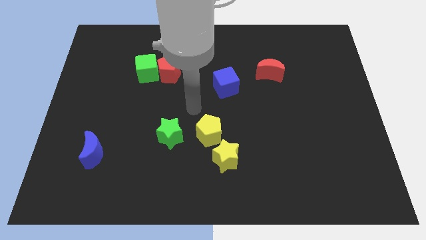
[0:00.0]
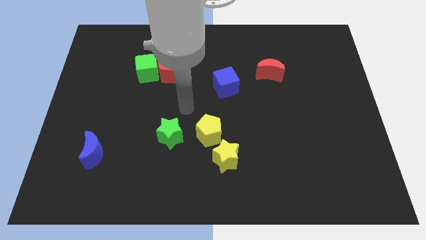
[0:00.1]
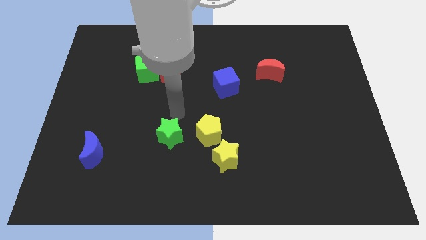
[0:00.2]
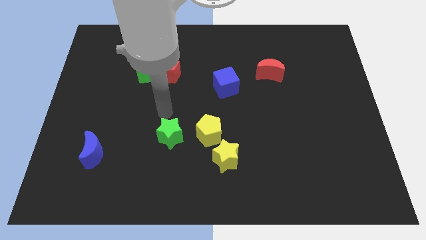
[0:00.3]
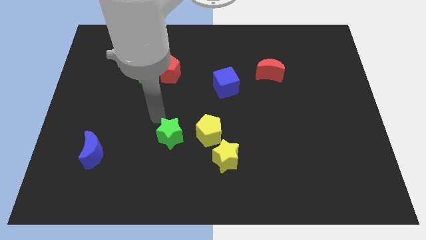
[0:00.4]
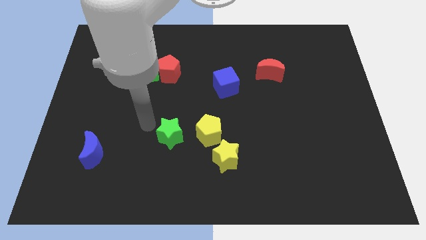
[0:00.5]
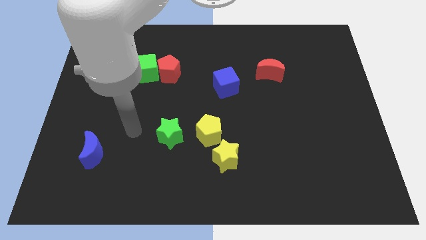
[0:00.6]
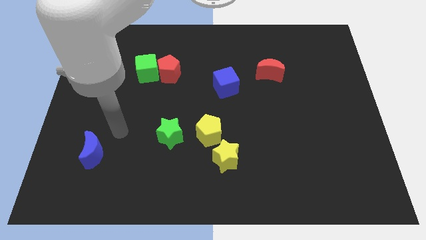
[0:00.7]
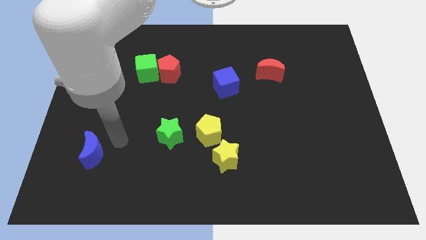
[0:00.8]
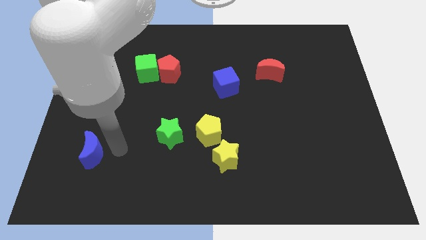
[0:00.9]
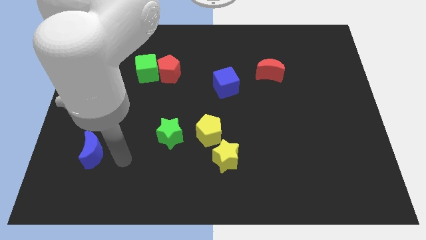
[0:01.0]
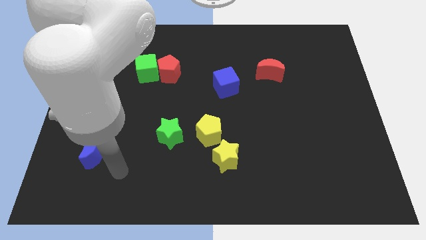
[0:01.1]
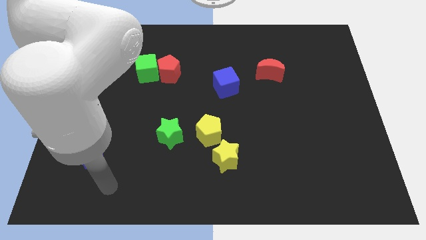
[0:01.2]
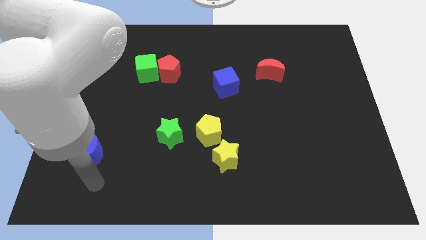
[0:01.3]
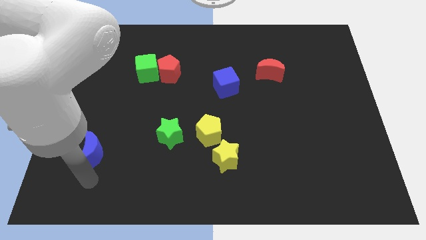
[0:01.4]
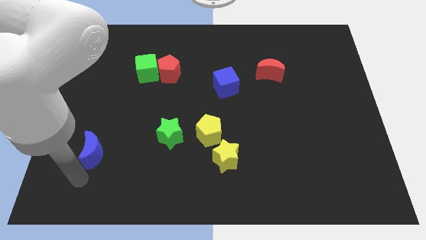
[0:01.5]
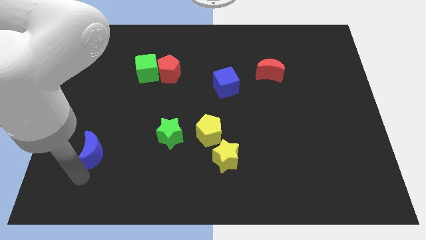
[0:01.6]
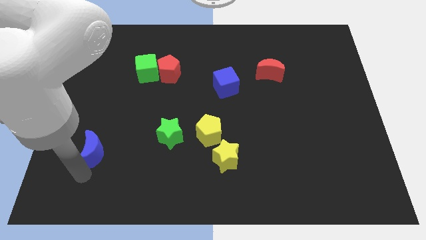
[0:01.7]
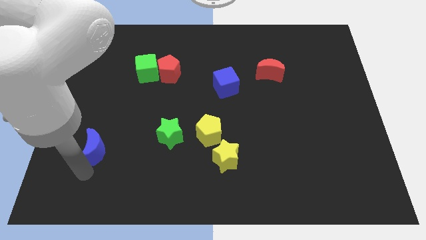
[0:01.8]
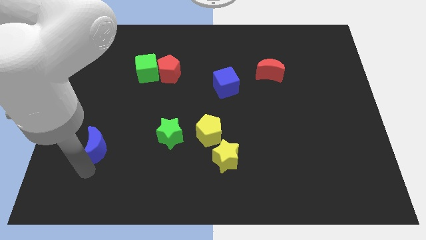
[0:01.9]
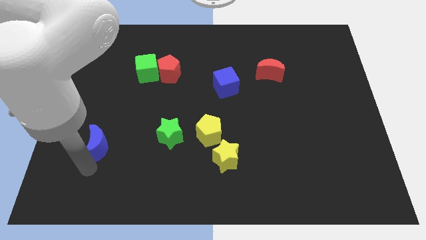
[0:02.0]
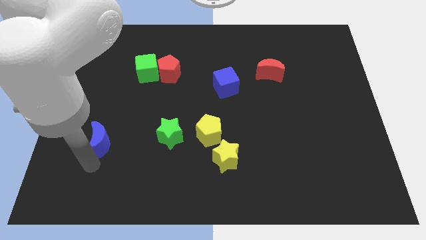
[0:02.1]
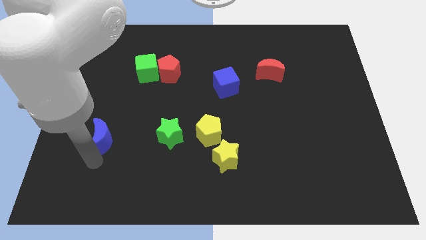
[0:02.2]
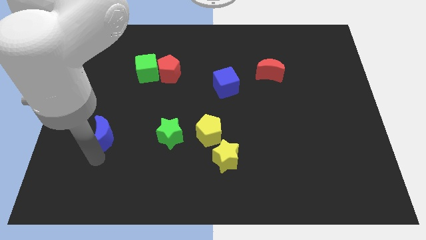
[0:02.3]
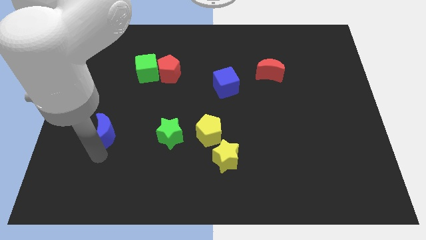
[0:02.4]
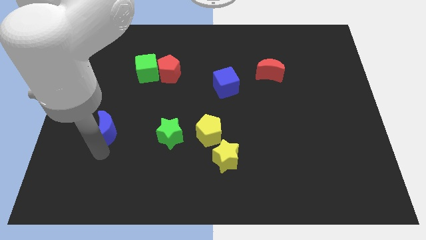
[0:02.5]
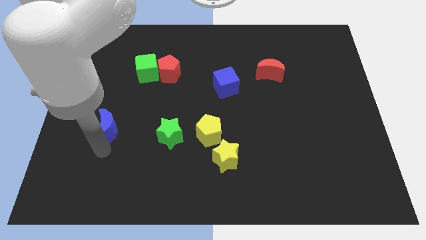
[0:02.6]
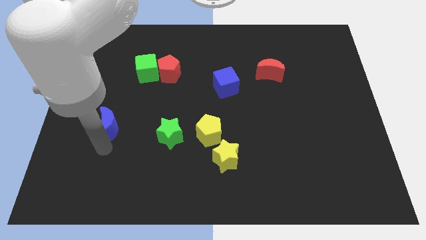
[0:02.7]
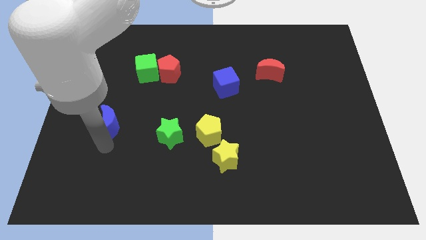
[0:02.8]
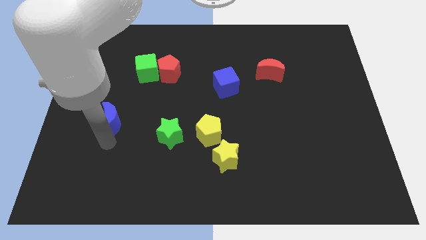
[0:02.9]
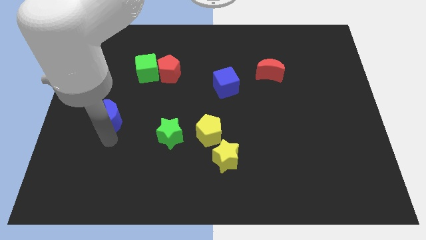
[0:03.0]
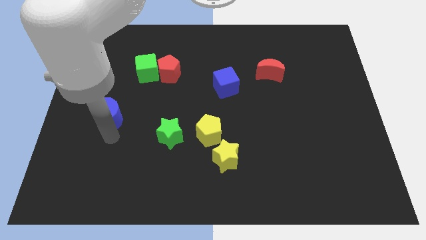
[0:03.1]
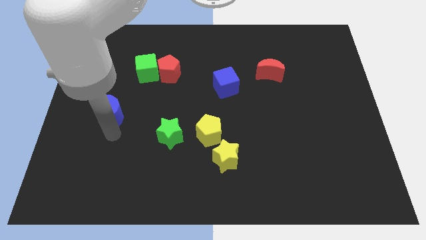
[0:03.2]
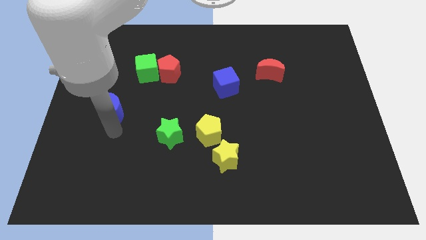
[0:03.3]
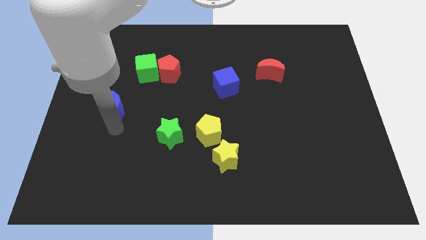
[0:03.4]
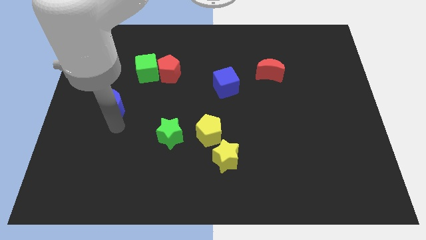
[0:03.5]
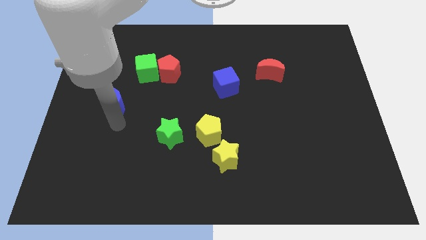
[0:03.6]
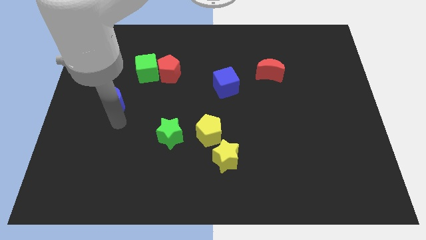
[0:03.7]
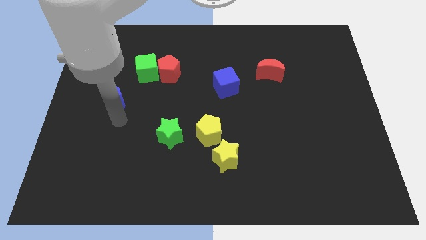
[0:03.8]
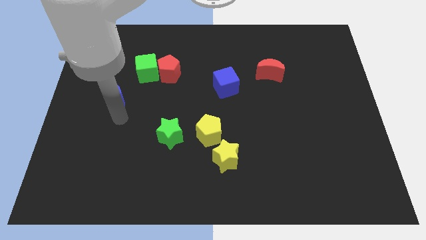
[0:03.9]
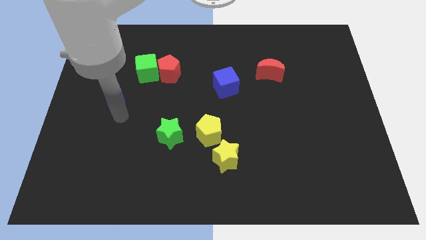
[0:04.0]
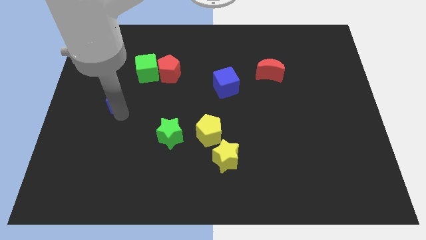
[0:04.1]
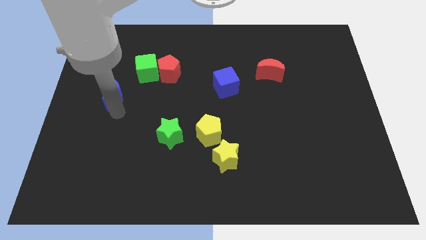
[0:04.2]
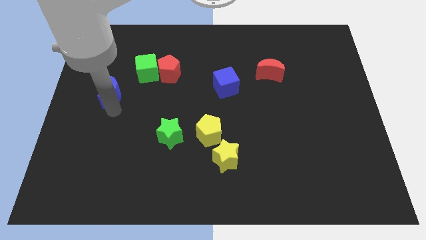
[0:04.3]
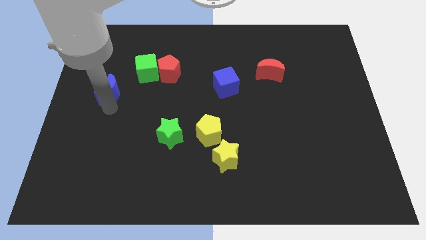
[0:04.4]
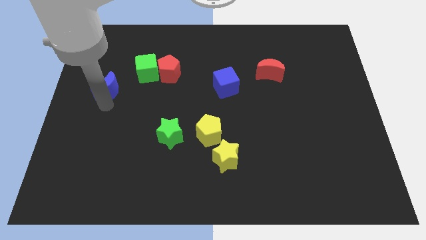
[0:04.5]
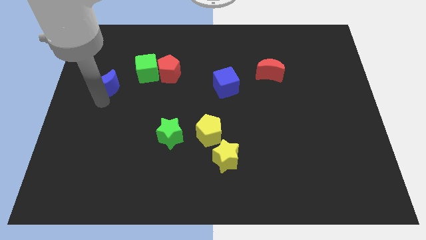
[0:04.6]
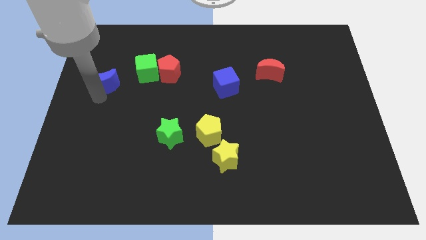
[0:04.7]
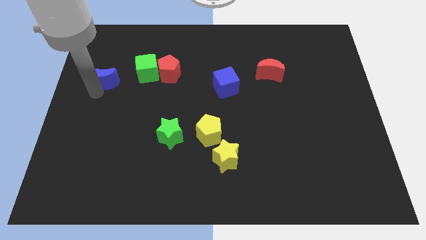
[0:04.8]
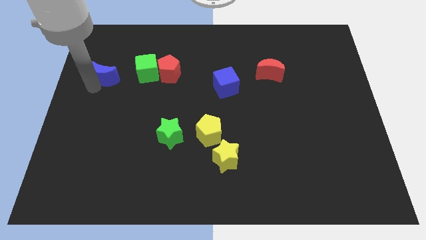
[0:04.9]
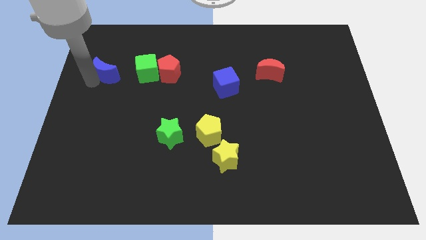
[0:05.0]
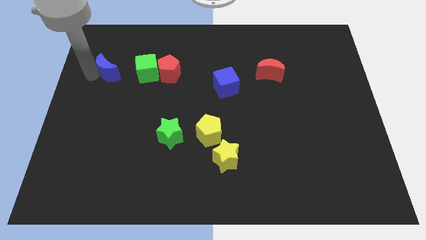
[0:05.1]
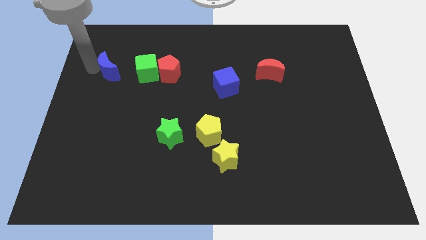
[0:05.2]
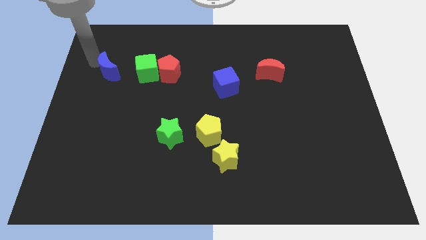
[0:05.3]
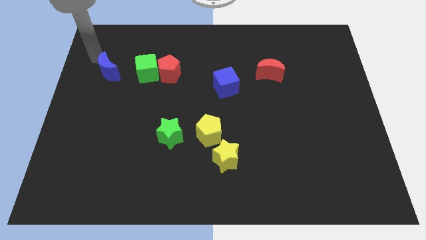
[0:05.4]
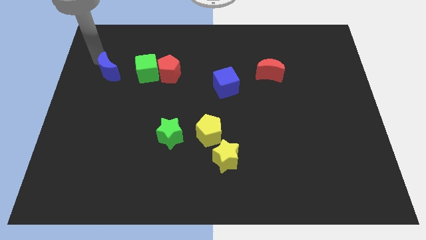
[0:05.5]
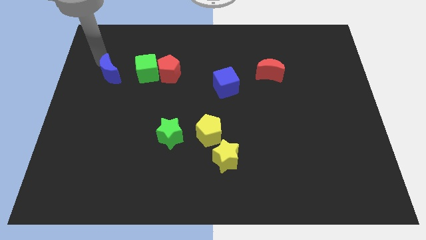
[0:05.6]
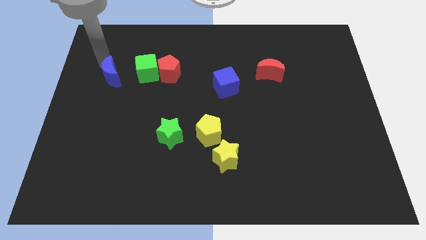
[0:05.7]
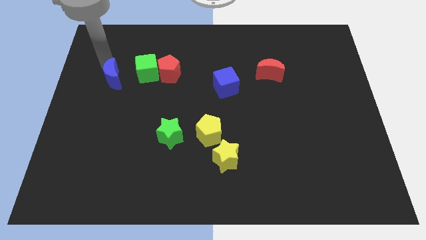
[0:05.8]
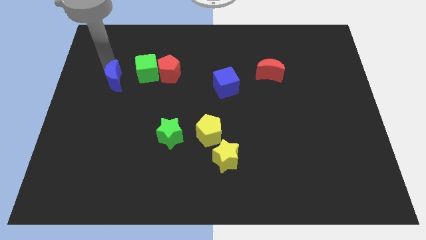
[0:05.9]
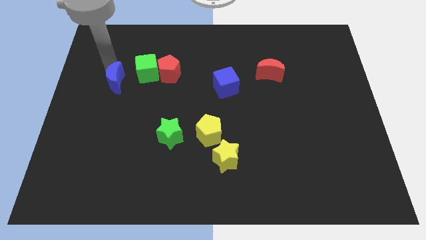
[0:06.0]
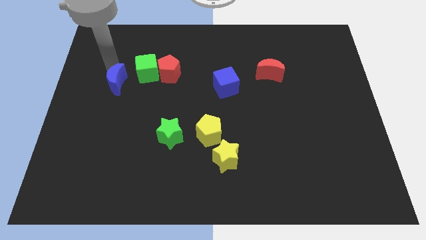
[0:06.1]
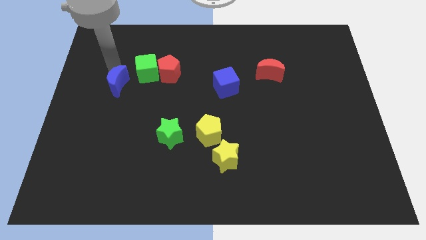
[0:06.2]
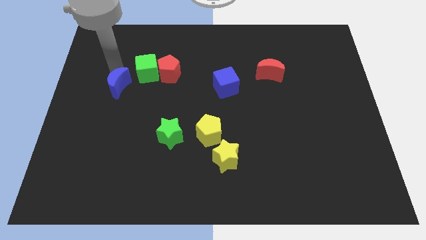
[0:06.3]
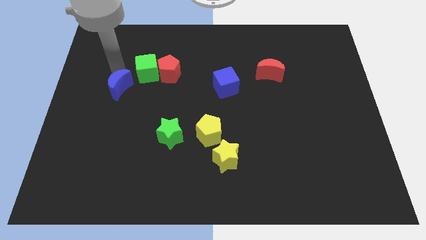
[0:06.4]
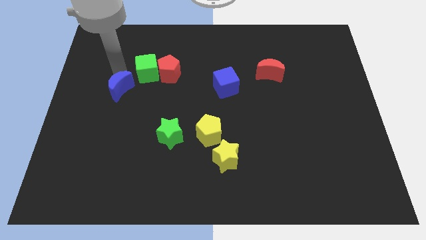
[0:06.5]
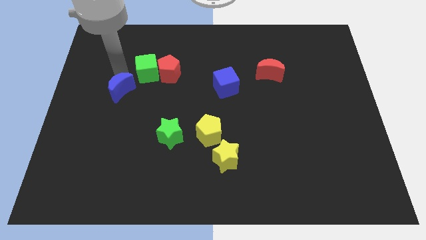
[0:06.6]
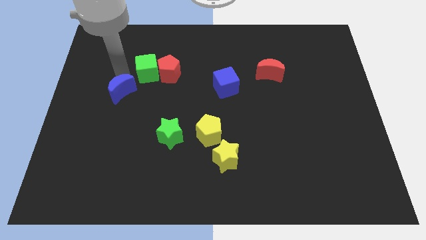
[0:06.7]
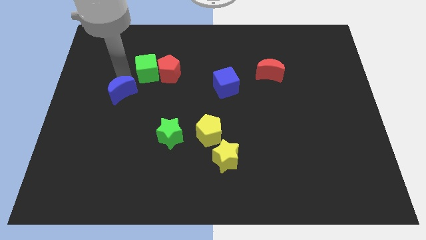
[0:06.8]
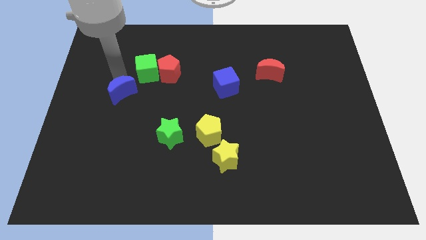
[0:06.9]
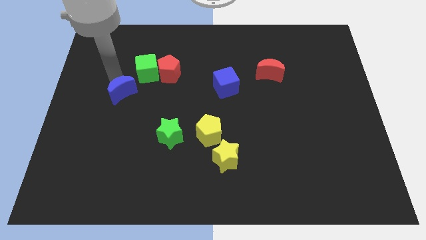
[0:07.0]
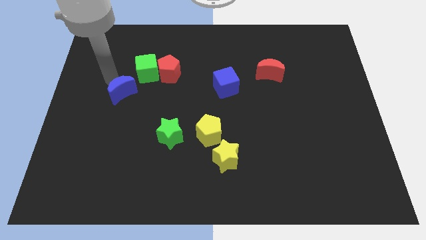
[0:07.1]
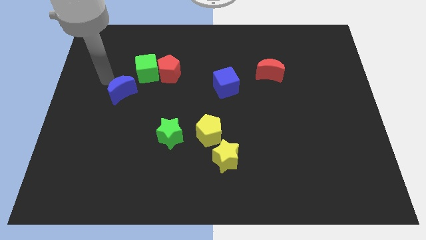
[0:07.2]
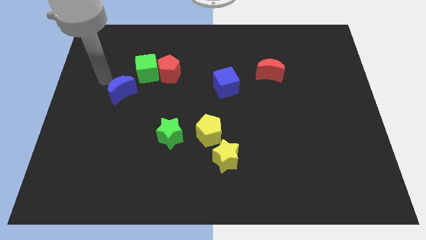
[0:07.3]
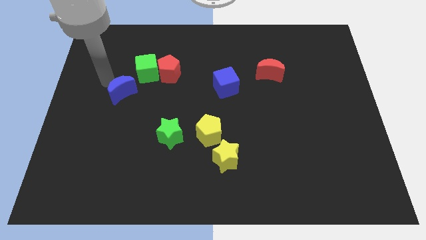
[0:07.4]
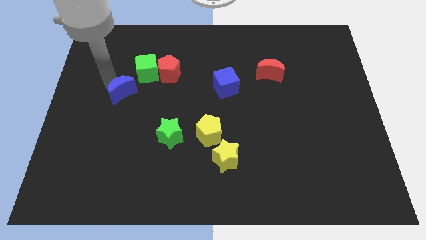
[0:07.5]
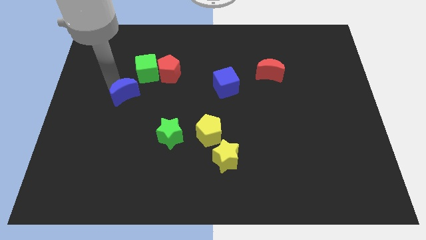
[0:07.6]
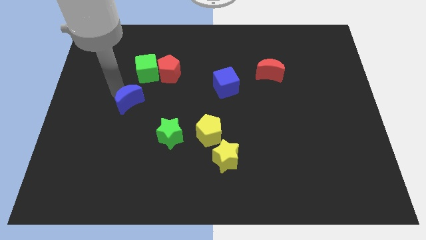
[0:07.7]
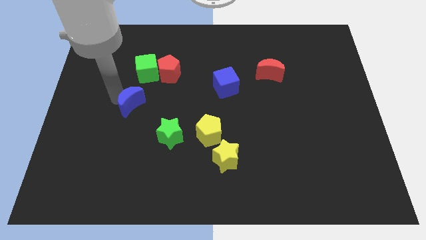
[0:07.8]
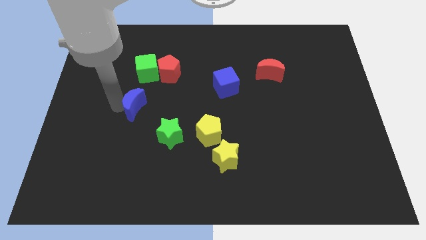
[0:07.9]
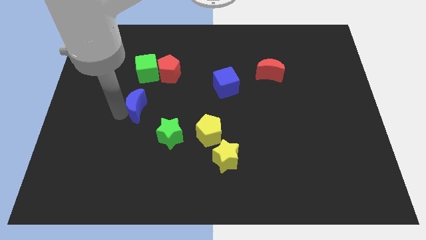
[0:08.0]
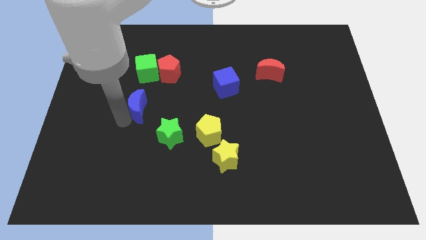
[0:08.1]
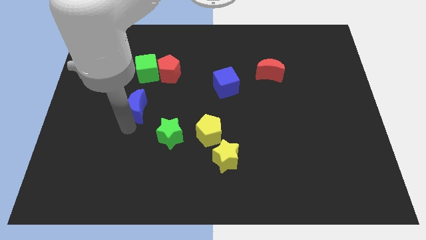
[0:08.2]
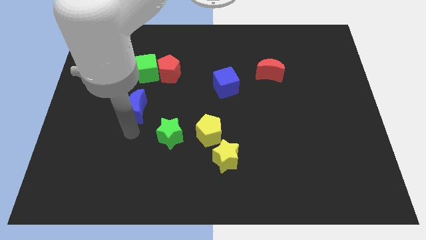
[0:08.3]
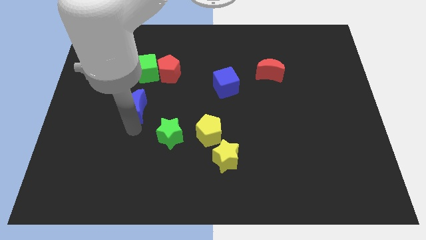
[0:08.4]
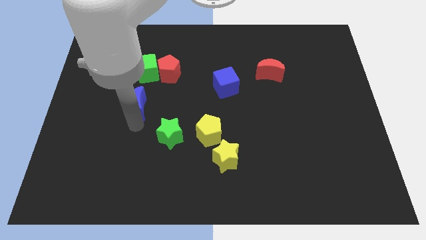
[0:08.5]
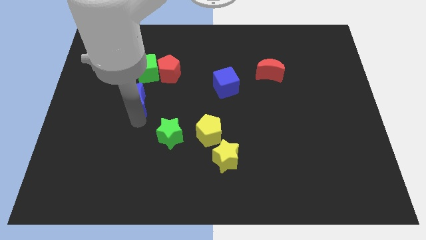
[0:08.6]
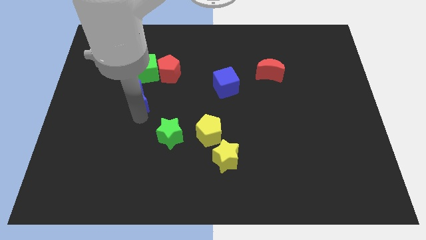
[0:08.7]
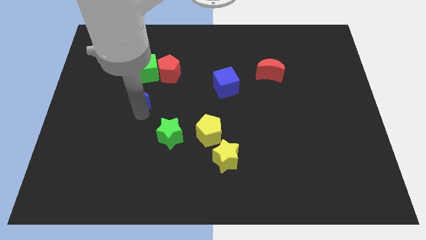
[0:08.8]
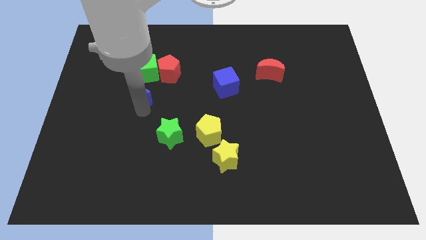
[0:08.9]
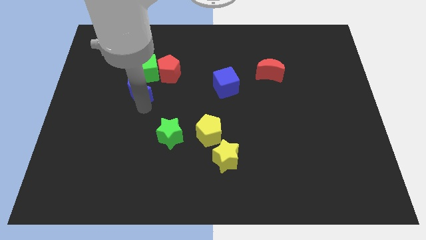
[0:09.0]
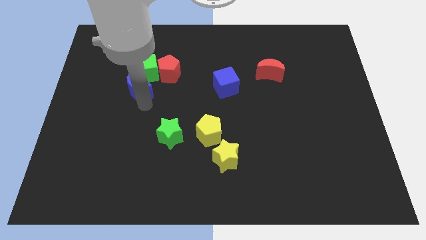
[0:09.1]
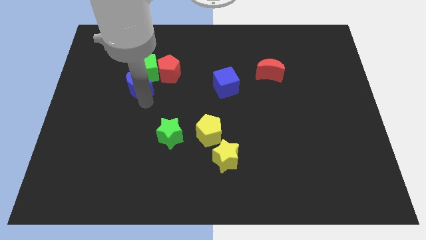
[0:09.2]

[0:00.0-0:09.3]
move the blue moon next to the green cube
